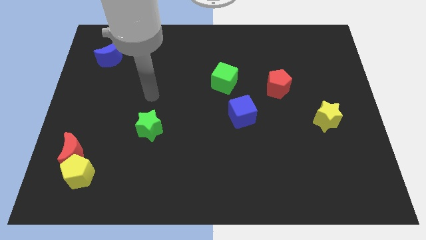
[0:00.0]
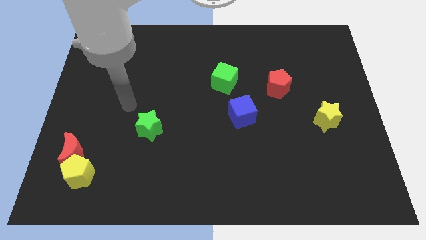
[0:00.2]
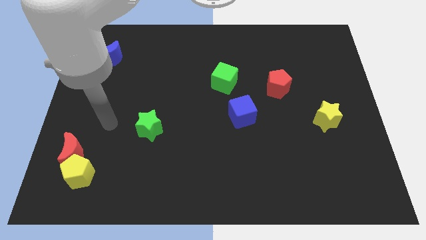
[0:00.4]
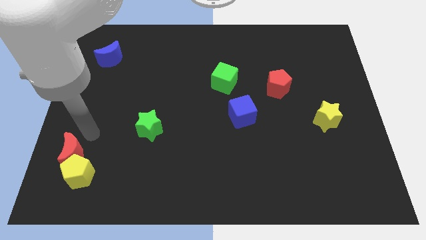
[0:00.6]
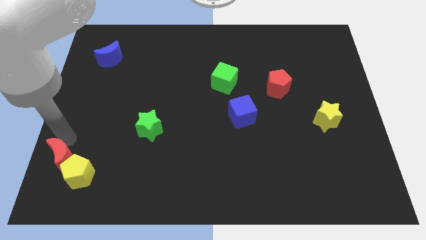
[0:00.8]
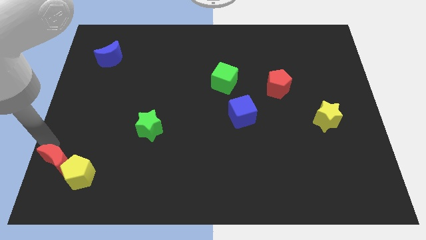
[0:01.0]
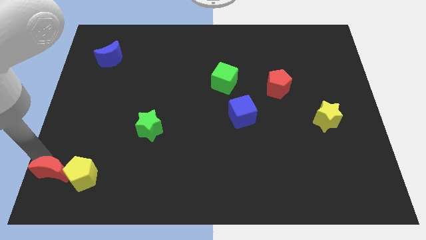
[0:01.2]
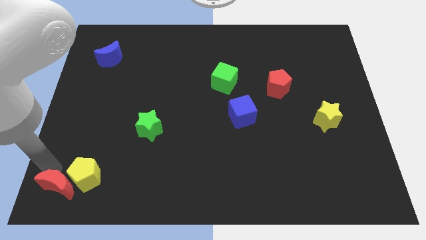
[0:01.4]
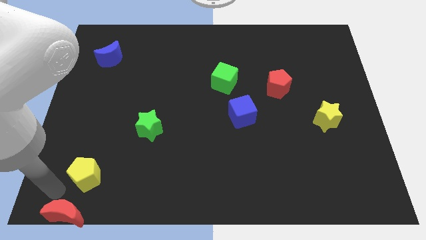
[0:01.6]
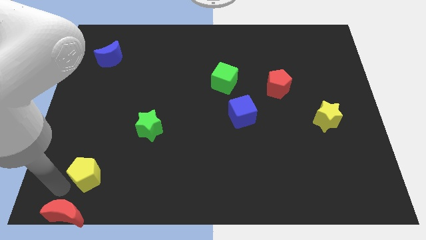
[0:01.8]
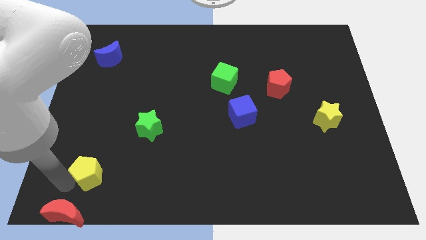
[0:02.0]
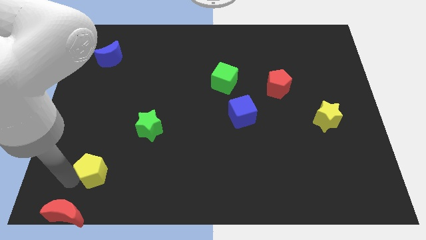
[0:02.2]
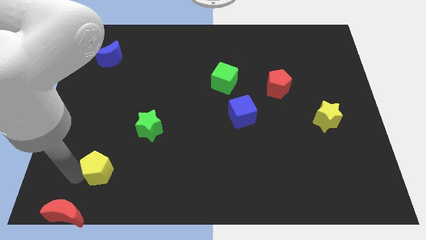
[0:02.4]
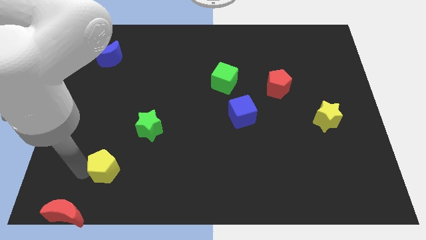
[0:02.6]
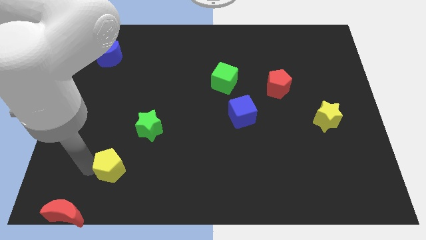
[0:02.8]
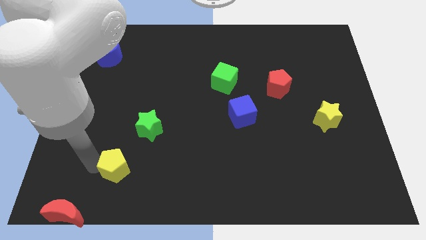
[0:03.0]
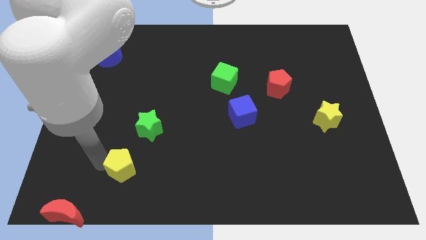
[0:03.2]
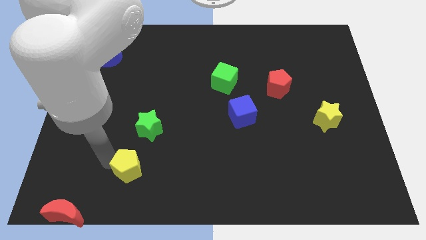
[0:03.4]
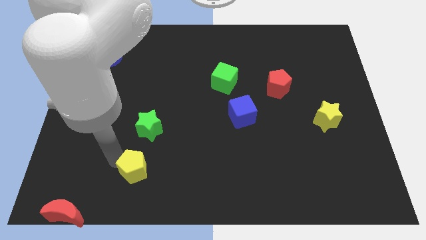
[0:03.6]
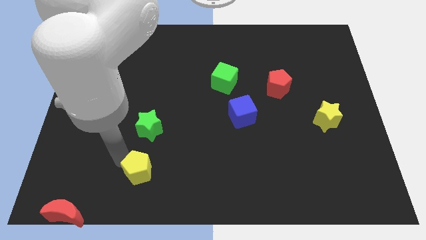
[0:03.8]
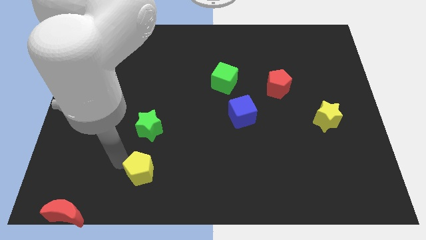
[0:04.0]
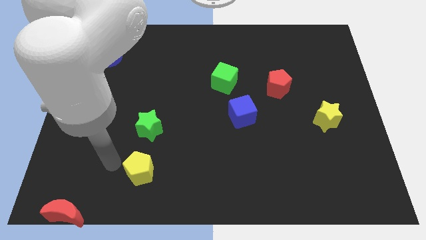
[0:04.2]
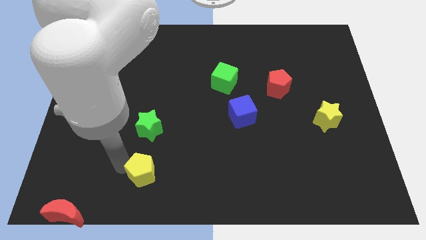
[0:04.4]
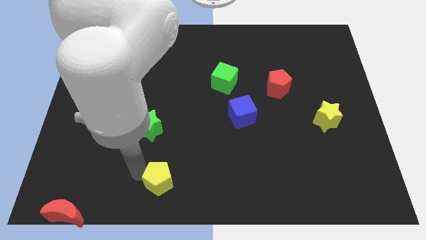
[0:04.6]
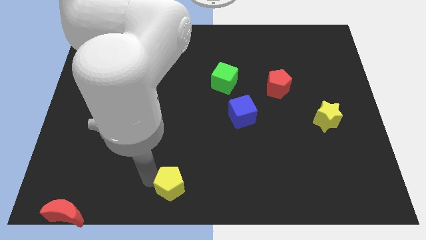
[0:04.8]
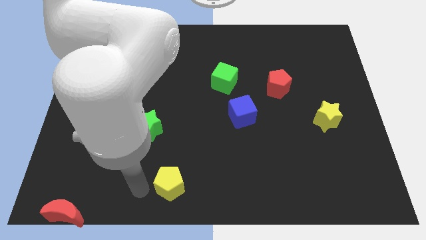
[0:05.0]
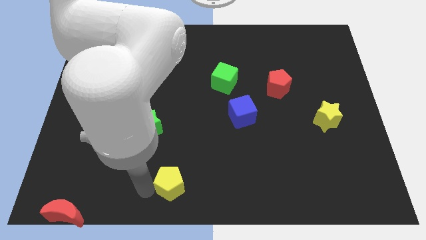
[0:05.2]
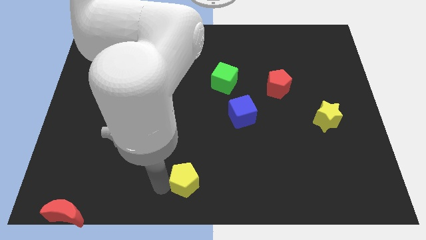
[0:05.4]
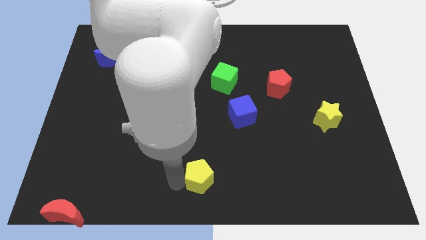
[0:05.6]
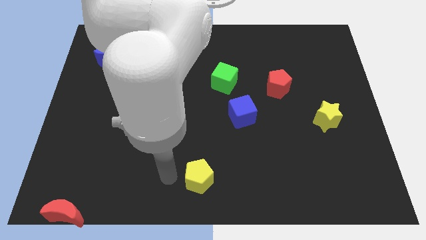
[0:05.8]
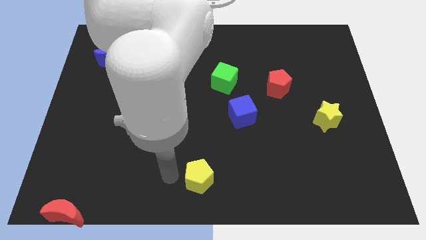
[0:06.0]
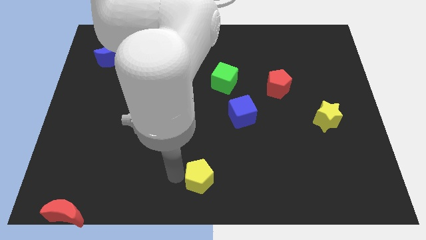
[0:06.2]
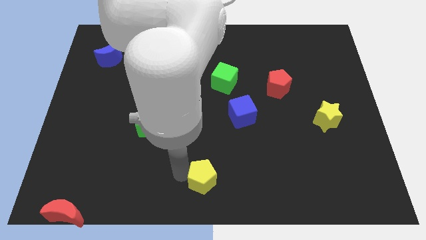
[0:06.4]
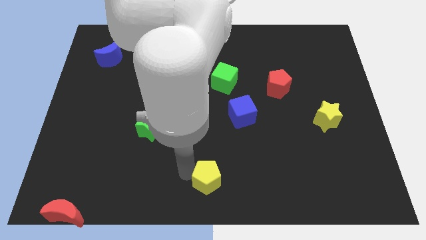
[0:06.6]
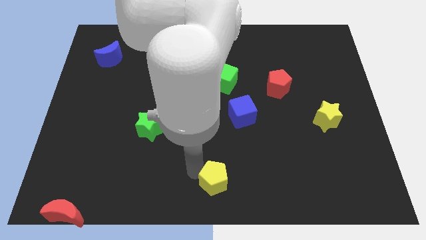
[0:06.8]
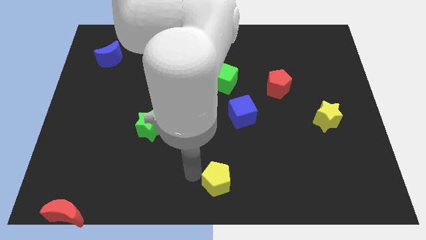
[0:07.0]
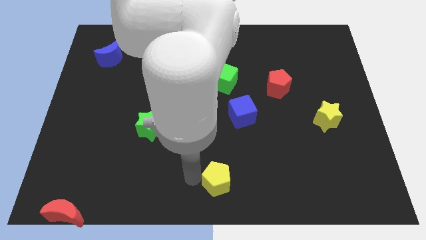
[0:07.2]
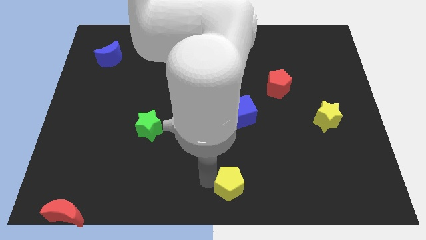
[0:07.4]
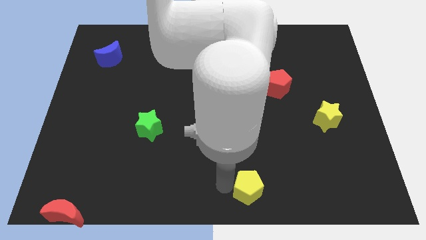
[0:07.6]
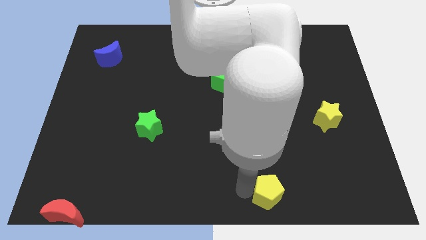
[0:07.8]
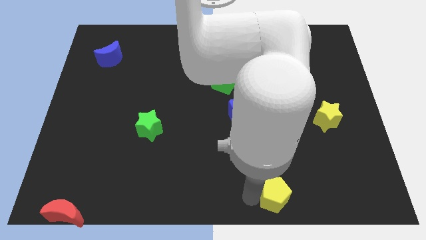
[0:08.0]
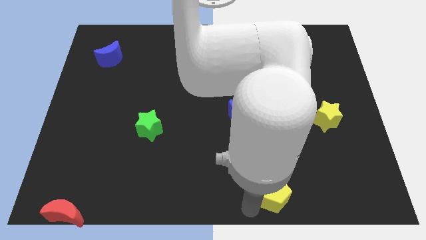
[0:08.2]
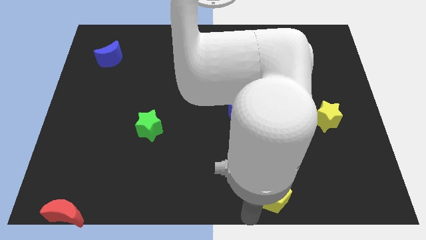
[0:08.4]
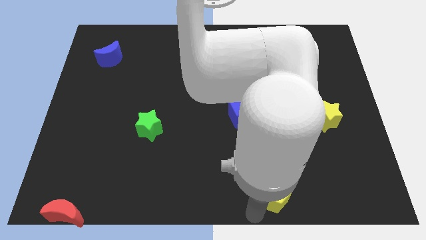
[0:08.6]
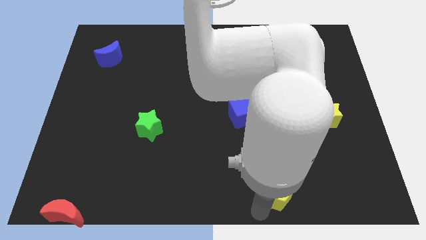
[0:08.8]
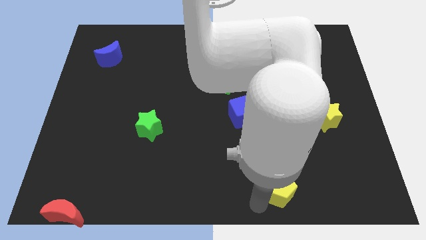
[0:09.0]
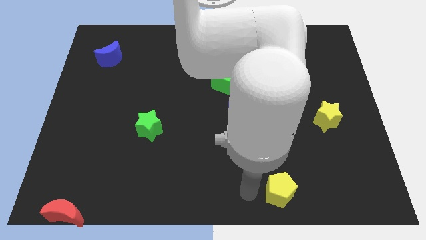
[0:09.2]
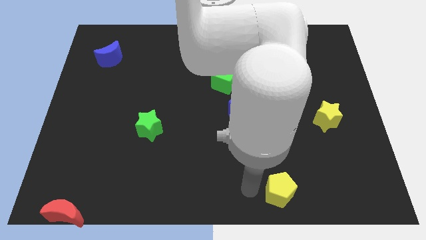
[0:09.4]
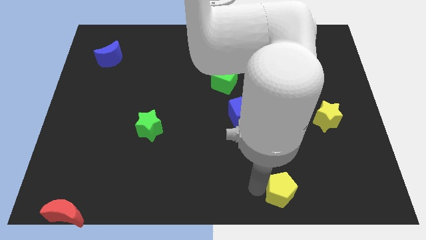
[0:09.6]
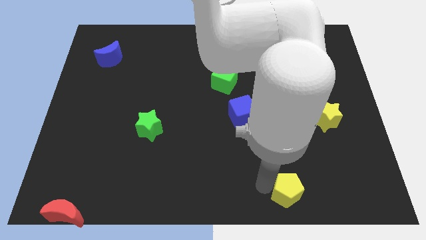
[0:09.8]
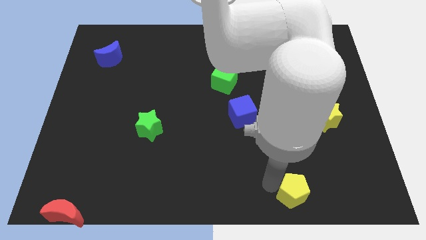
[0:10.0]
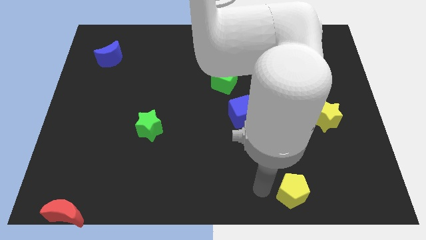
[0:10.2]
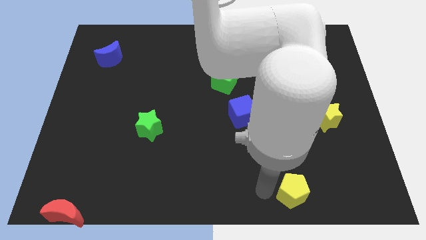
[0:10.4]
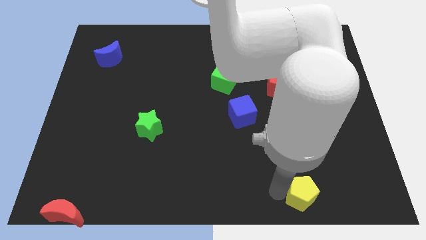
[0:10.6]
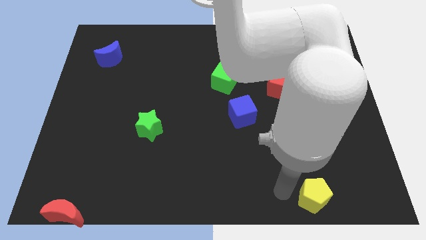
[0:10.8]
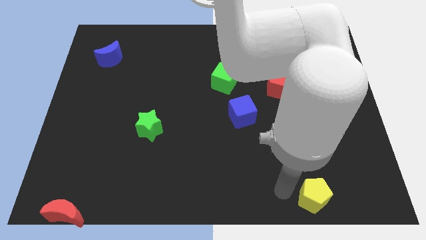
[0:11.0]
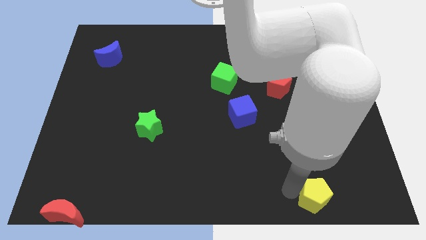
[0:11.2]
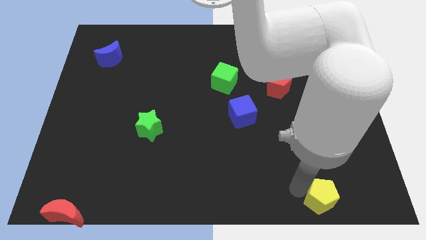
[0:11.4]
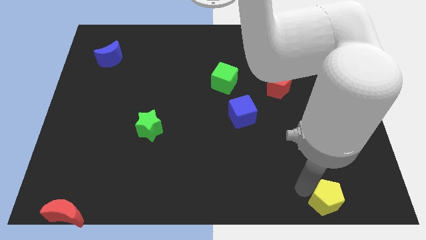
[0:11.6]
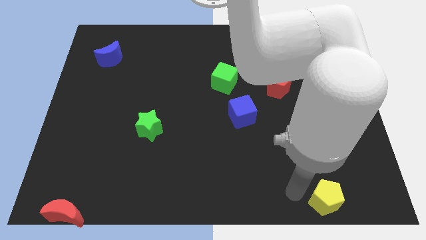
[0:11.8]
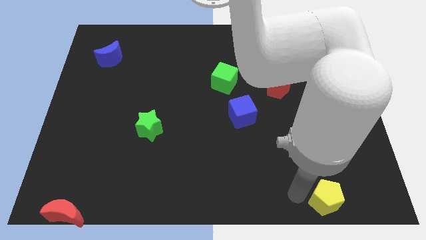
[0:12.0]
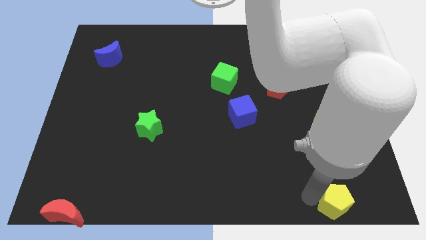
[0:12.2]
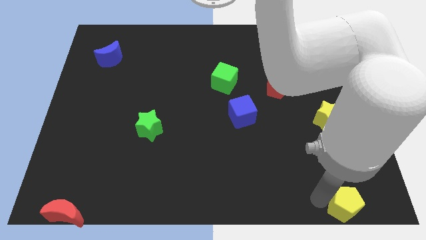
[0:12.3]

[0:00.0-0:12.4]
put the yellow pentagon to the lower right corner

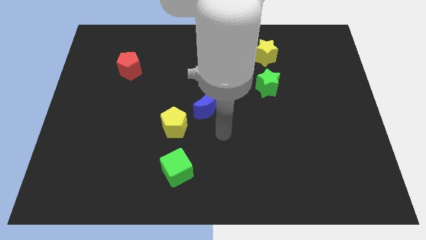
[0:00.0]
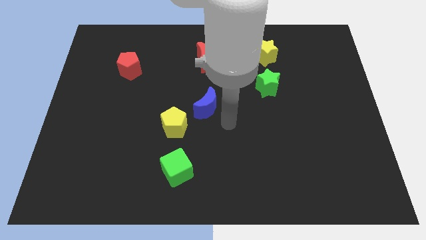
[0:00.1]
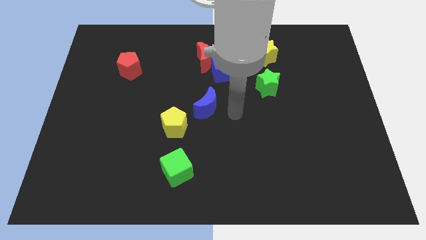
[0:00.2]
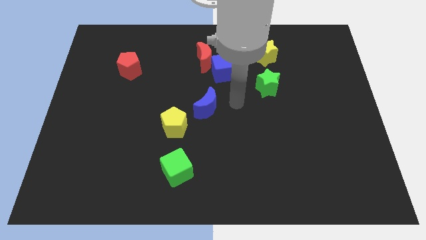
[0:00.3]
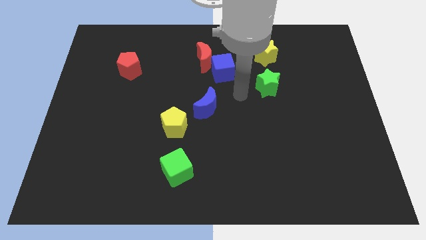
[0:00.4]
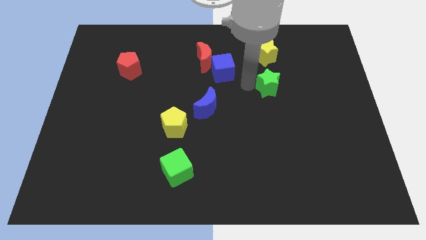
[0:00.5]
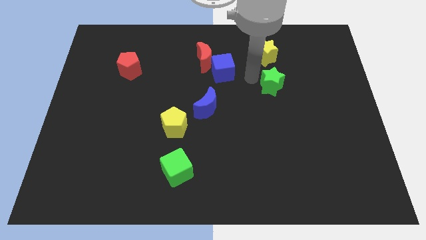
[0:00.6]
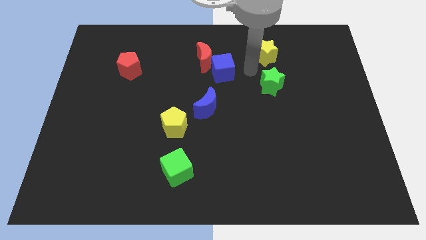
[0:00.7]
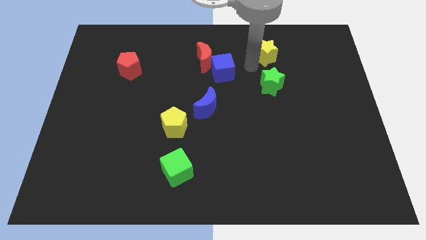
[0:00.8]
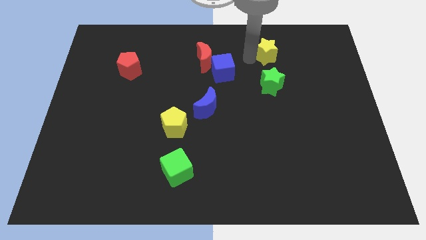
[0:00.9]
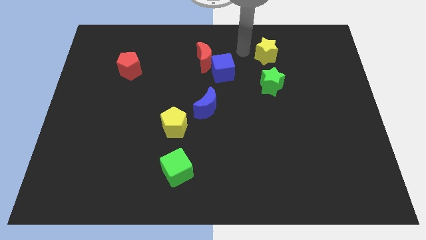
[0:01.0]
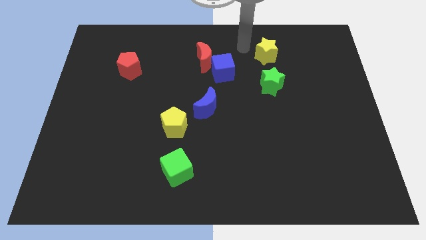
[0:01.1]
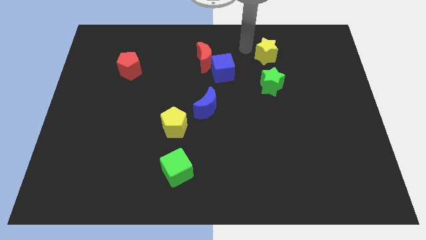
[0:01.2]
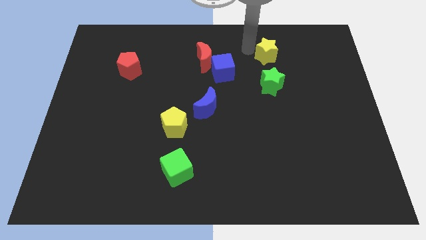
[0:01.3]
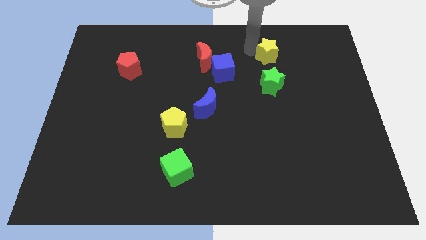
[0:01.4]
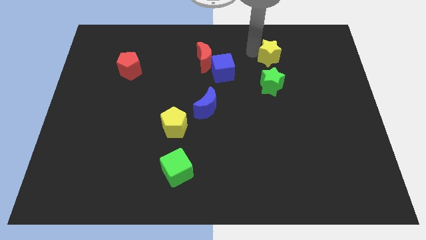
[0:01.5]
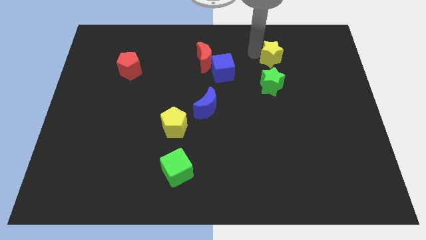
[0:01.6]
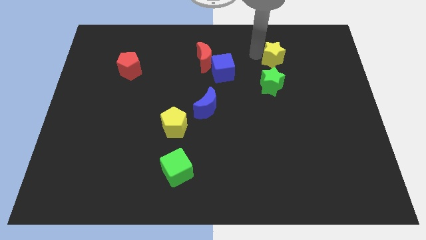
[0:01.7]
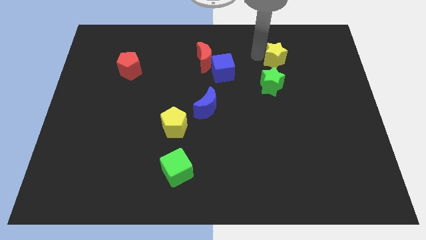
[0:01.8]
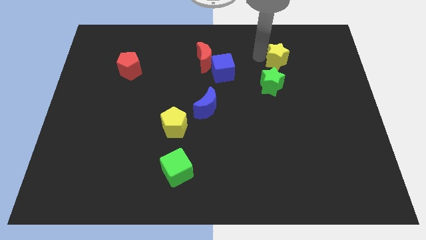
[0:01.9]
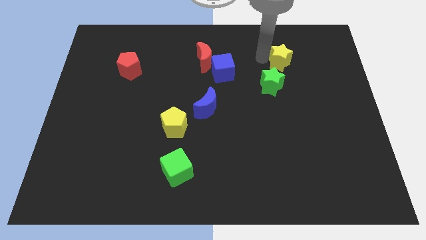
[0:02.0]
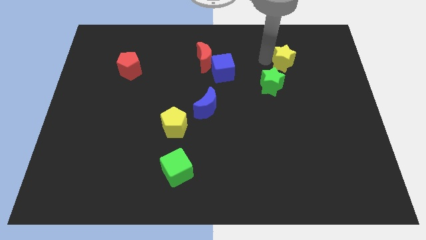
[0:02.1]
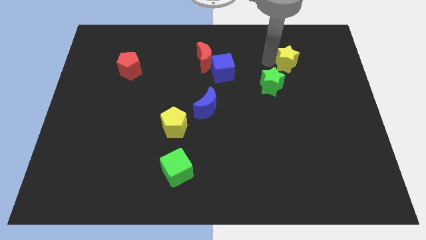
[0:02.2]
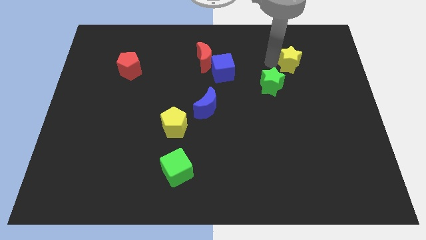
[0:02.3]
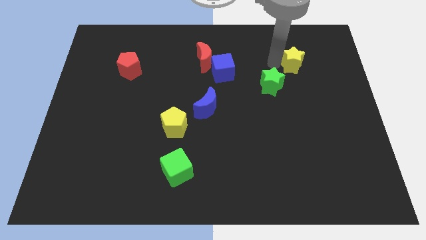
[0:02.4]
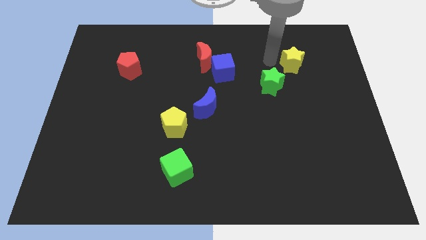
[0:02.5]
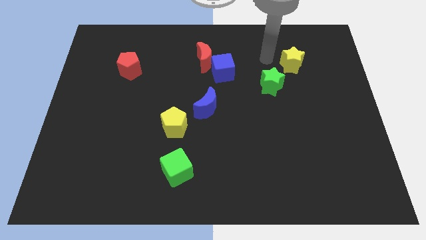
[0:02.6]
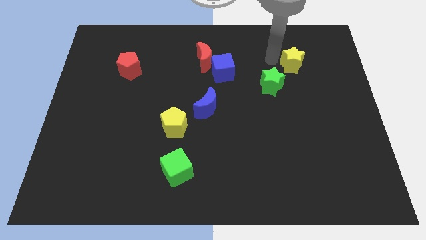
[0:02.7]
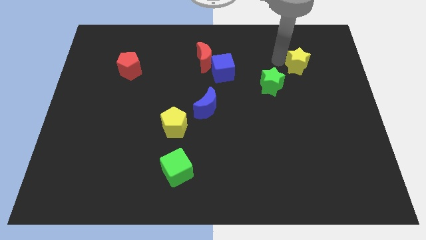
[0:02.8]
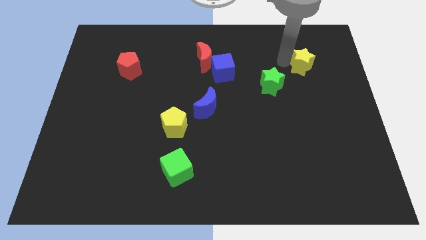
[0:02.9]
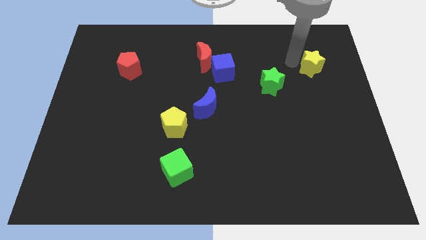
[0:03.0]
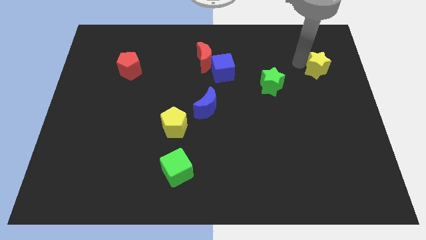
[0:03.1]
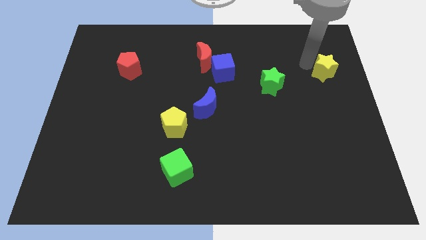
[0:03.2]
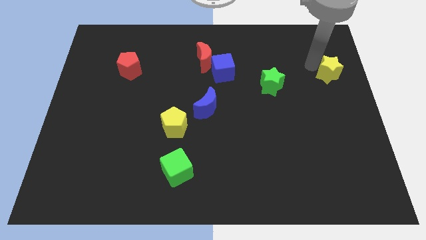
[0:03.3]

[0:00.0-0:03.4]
push the yellow star to the right side of the board
